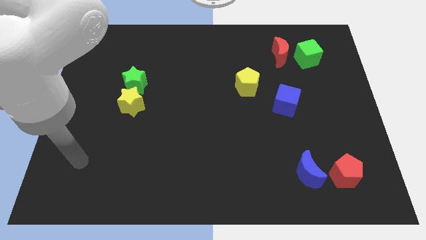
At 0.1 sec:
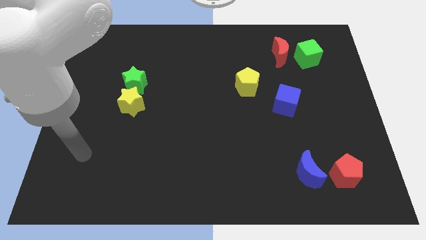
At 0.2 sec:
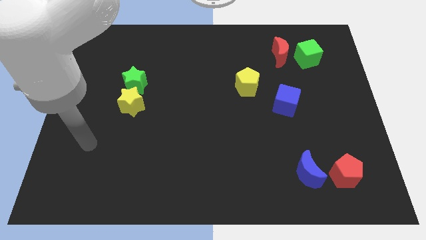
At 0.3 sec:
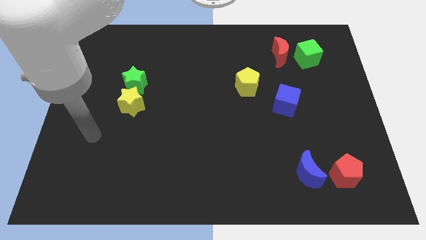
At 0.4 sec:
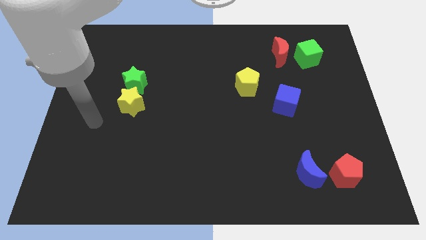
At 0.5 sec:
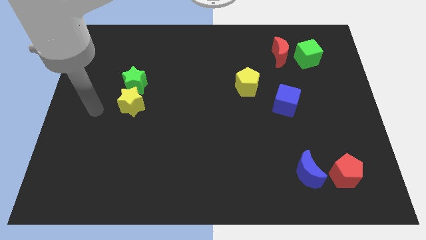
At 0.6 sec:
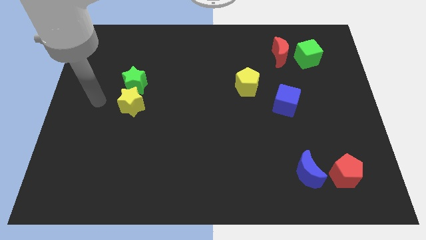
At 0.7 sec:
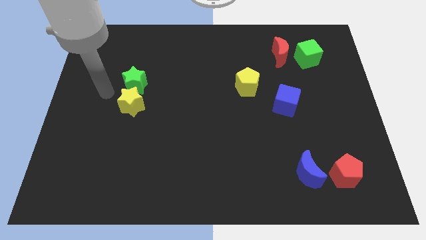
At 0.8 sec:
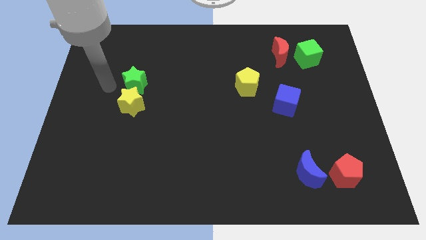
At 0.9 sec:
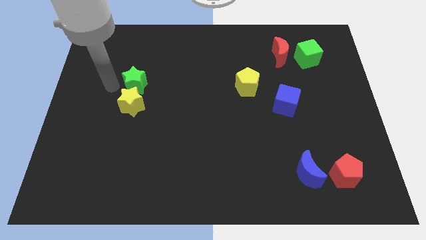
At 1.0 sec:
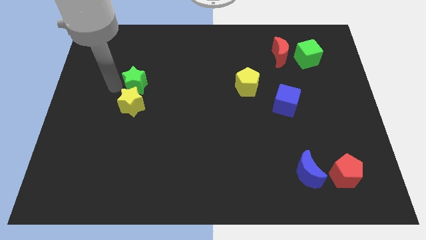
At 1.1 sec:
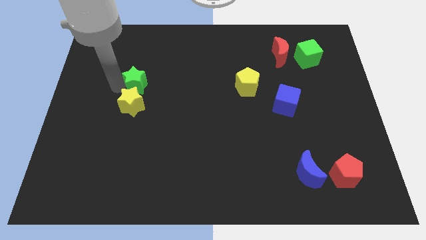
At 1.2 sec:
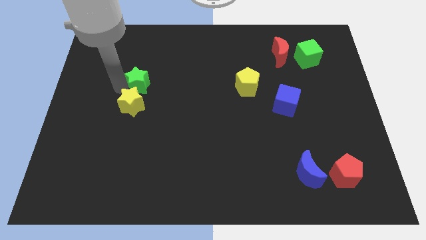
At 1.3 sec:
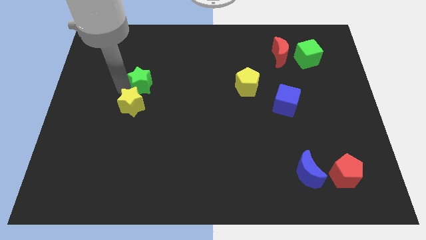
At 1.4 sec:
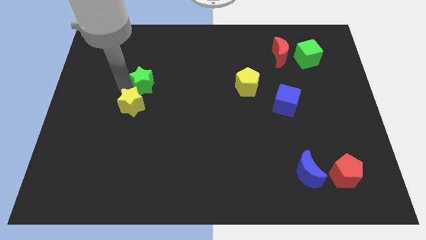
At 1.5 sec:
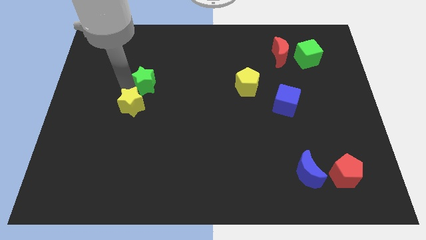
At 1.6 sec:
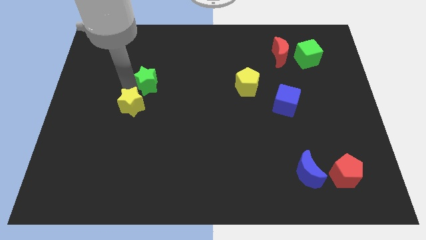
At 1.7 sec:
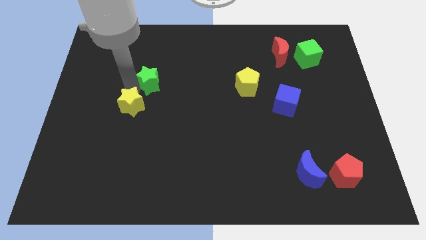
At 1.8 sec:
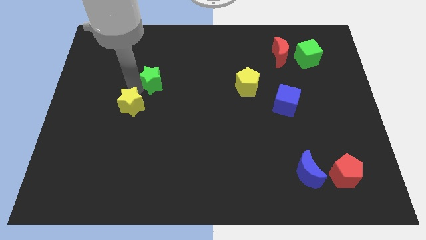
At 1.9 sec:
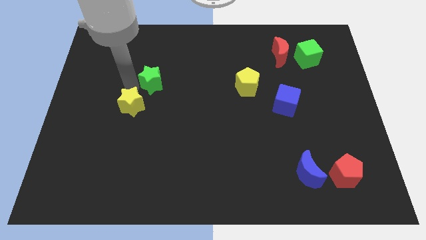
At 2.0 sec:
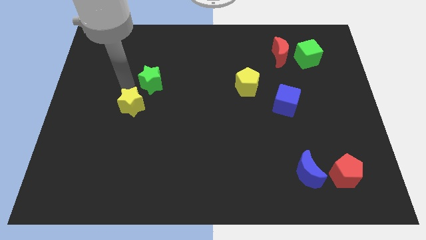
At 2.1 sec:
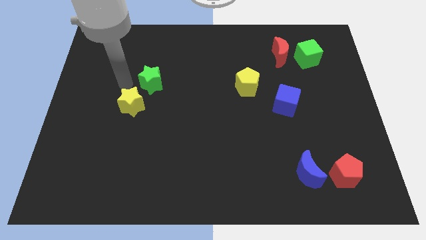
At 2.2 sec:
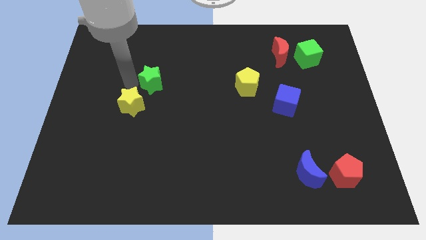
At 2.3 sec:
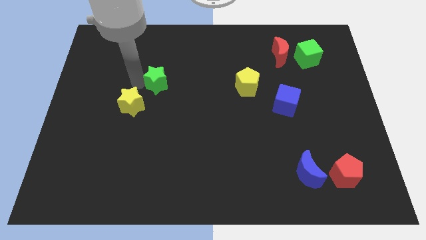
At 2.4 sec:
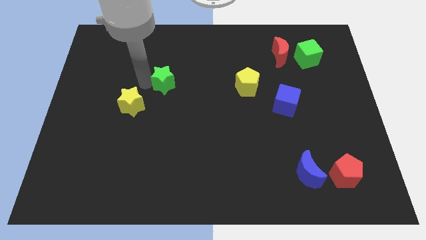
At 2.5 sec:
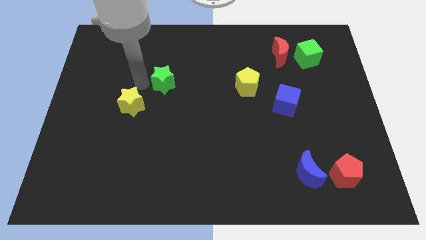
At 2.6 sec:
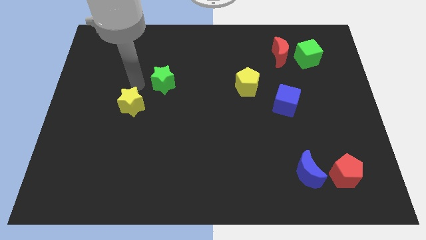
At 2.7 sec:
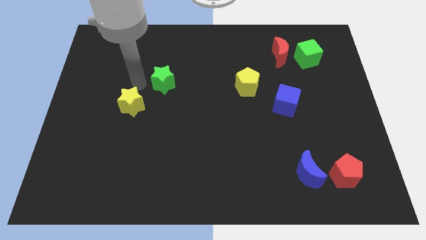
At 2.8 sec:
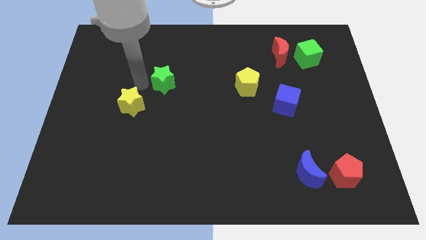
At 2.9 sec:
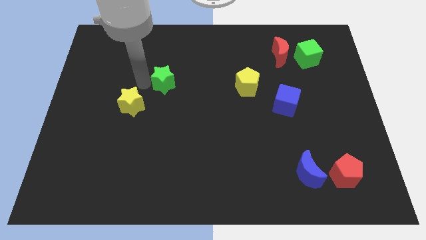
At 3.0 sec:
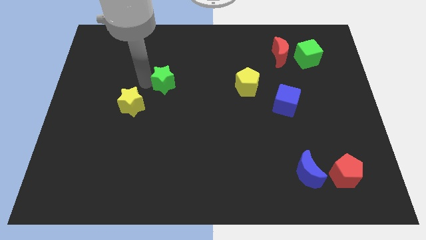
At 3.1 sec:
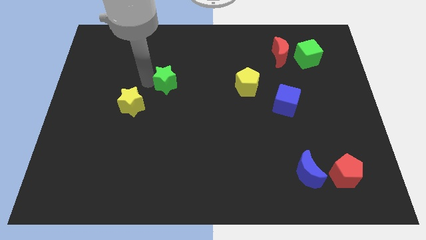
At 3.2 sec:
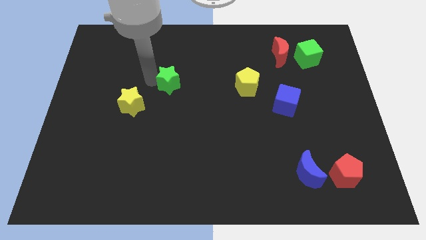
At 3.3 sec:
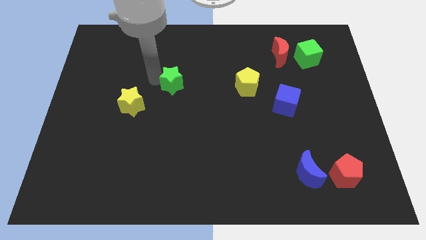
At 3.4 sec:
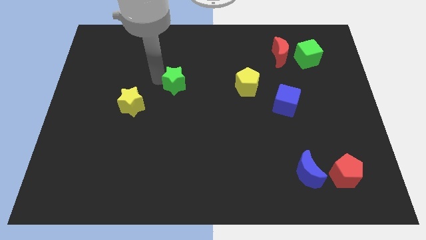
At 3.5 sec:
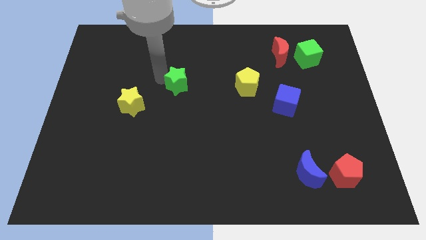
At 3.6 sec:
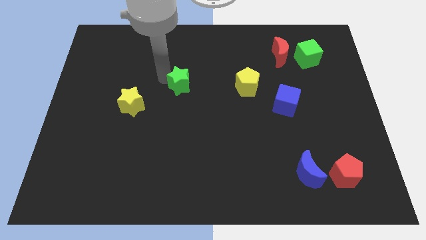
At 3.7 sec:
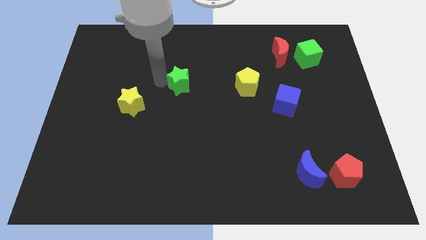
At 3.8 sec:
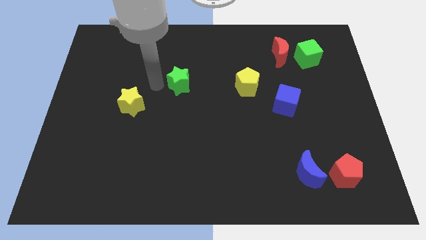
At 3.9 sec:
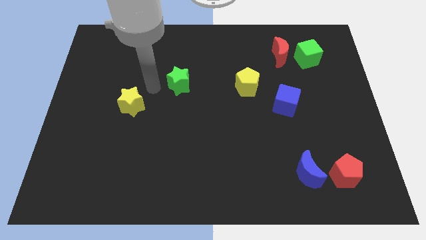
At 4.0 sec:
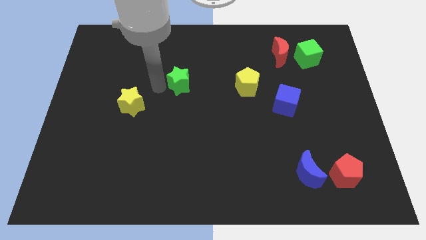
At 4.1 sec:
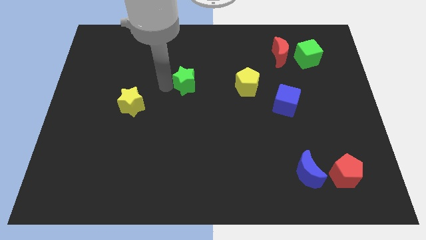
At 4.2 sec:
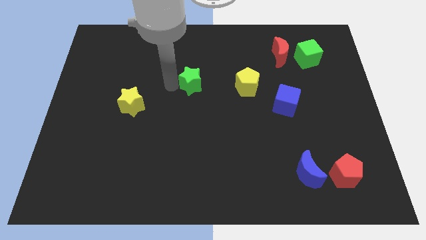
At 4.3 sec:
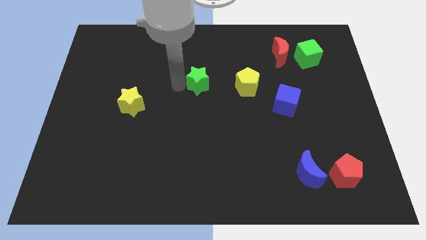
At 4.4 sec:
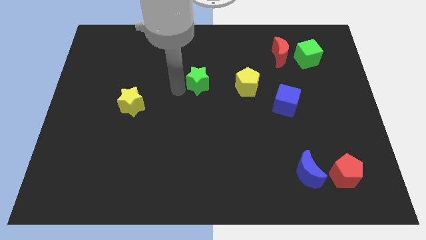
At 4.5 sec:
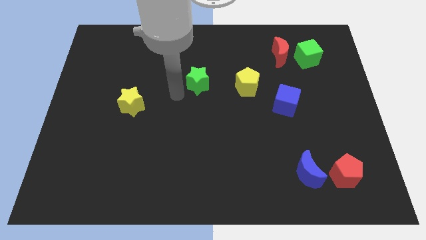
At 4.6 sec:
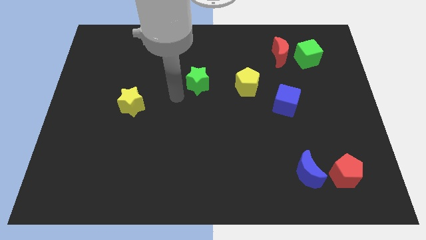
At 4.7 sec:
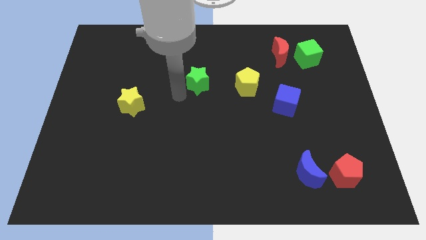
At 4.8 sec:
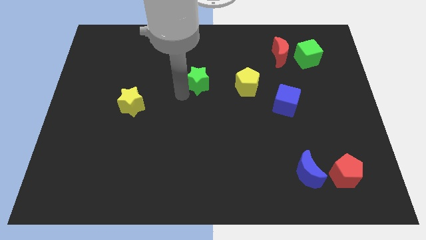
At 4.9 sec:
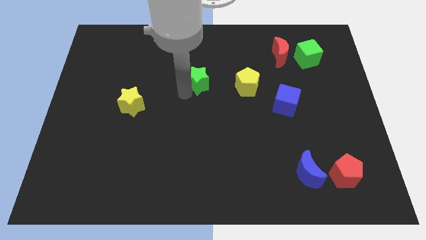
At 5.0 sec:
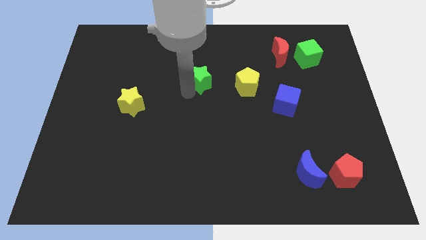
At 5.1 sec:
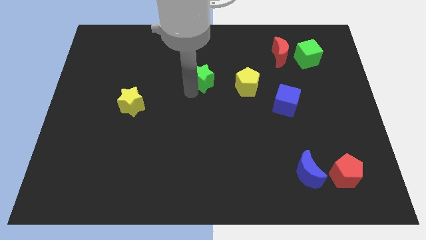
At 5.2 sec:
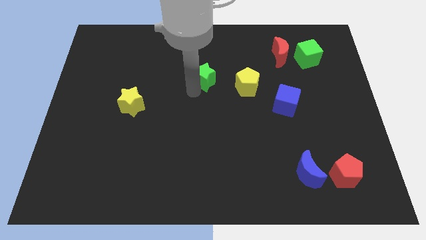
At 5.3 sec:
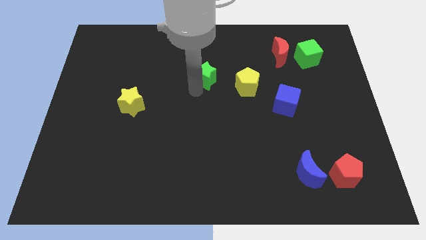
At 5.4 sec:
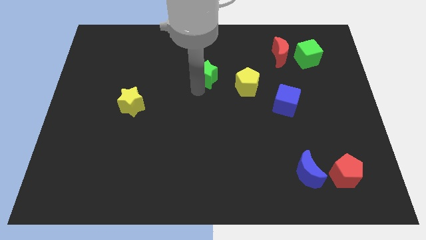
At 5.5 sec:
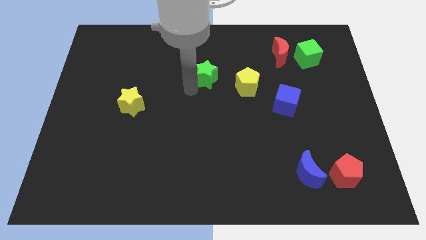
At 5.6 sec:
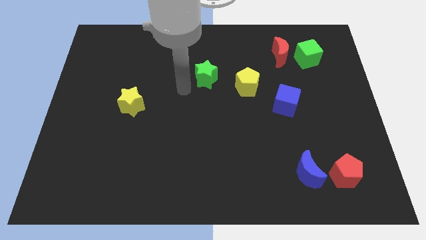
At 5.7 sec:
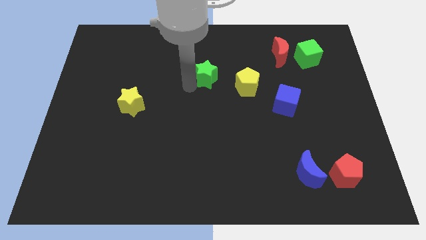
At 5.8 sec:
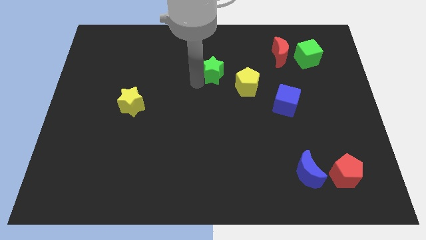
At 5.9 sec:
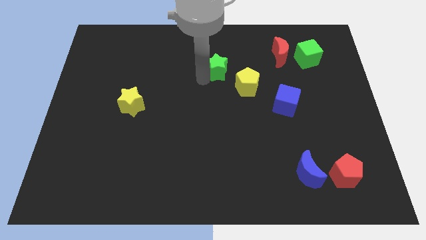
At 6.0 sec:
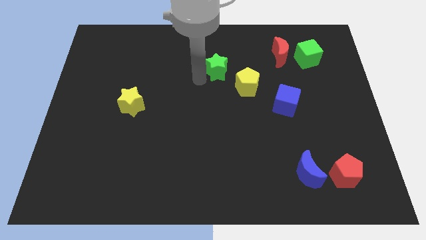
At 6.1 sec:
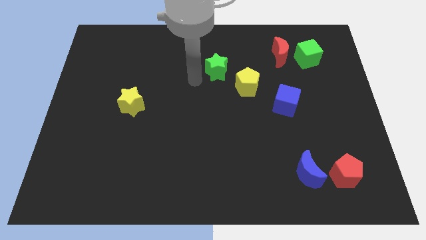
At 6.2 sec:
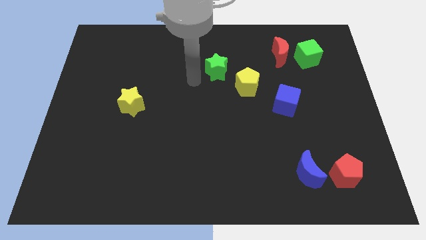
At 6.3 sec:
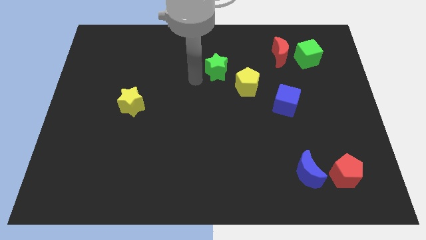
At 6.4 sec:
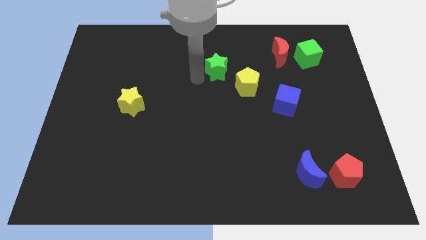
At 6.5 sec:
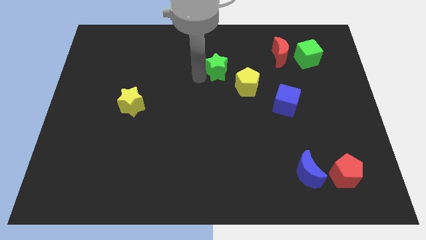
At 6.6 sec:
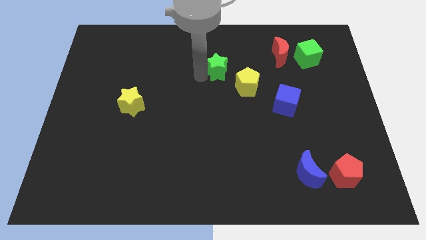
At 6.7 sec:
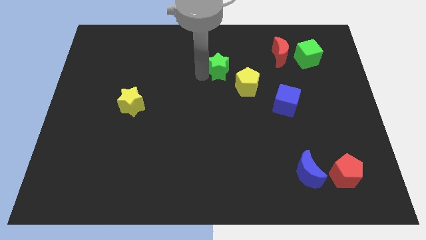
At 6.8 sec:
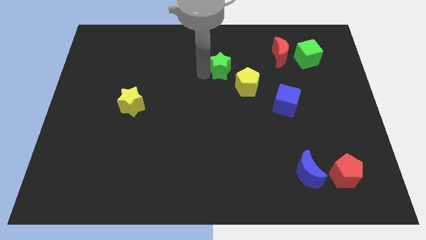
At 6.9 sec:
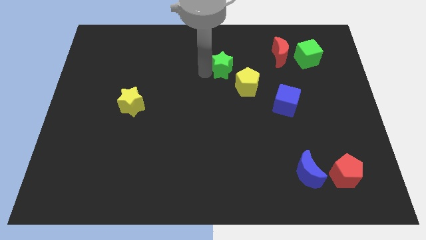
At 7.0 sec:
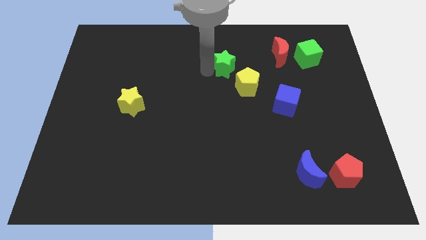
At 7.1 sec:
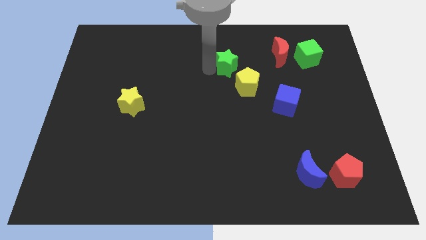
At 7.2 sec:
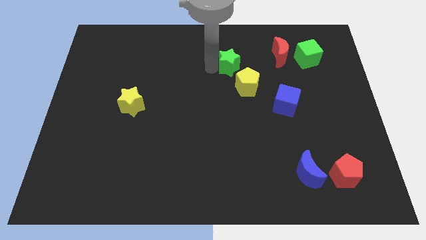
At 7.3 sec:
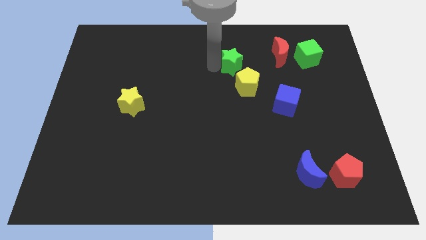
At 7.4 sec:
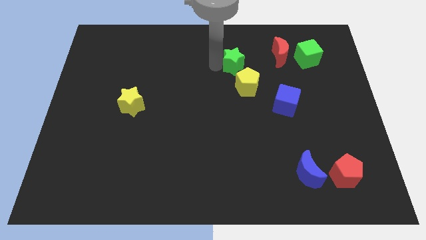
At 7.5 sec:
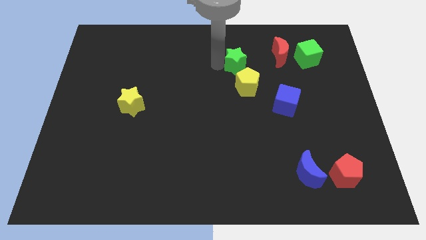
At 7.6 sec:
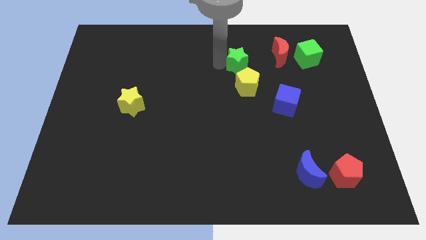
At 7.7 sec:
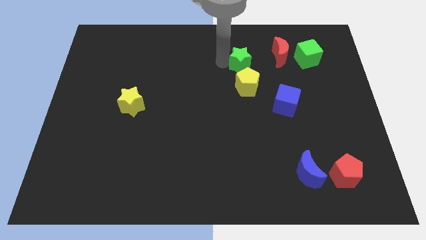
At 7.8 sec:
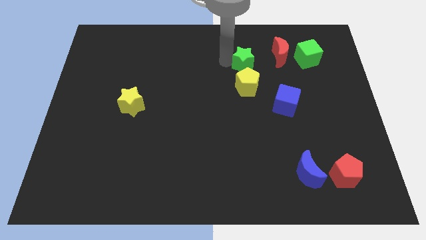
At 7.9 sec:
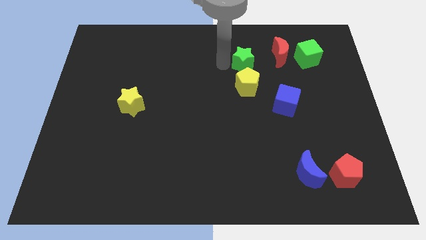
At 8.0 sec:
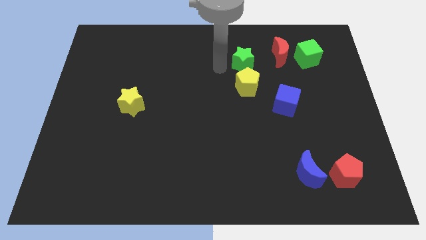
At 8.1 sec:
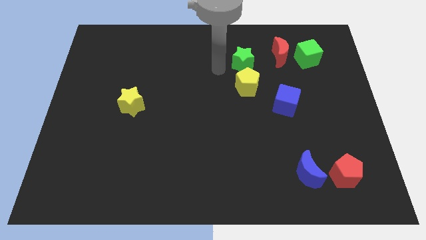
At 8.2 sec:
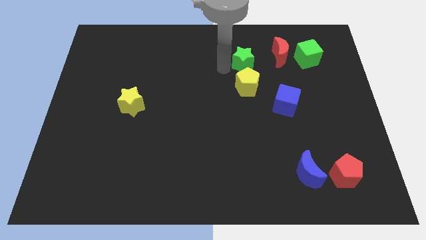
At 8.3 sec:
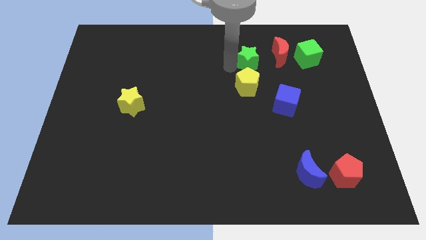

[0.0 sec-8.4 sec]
slide the green star to the left of the green cube
